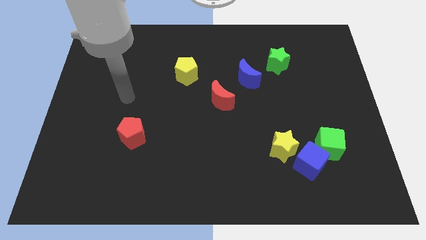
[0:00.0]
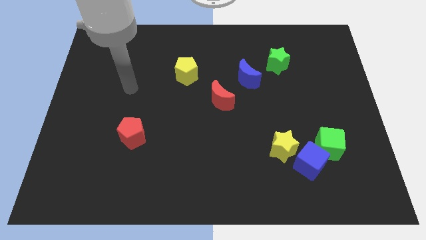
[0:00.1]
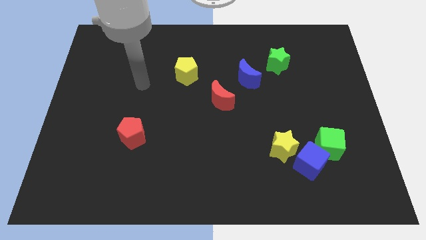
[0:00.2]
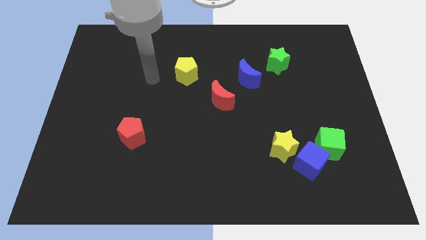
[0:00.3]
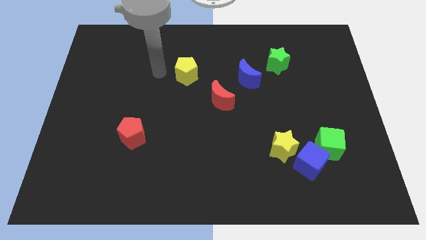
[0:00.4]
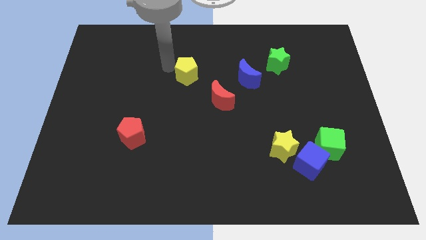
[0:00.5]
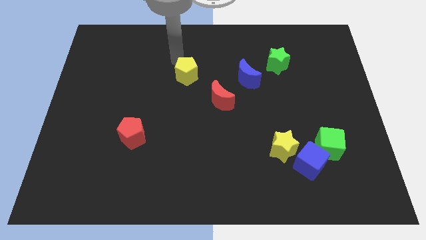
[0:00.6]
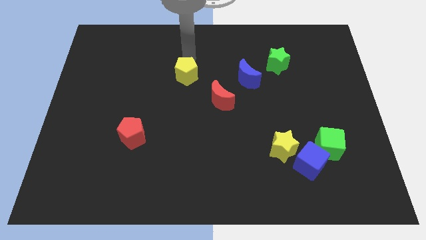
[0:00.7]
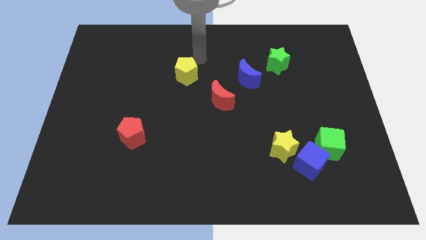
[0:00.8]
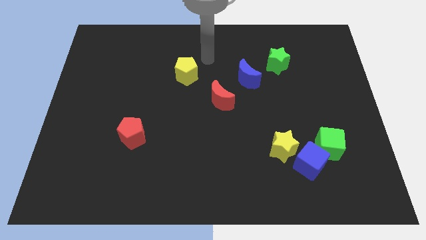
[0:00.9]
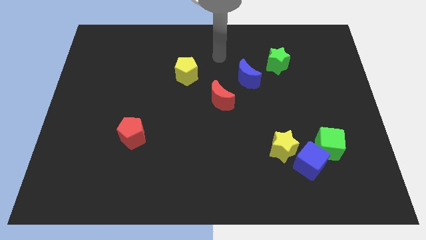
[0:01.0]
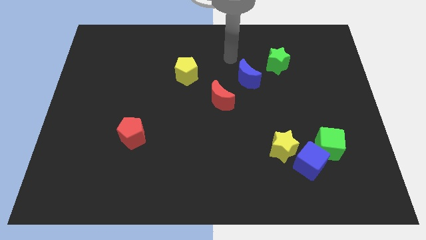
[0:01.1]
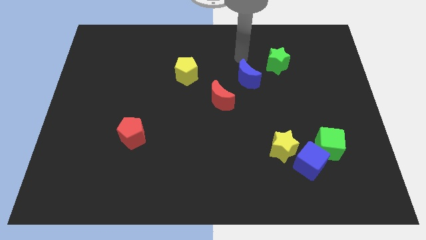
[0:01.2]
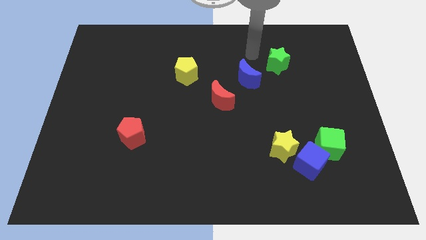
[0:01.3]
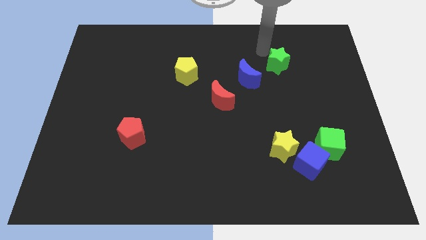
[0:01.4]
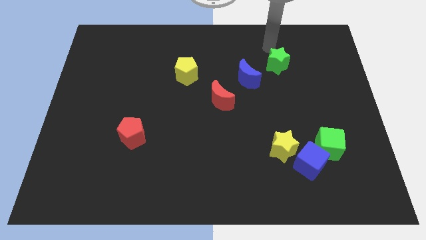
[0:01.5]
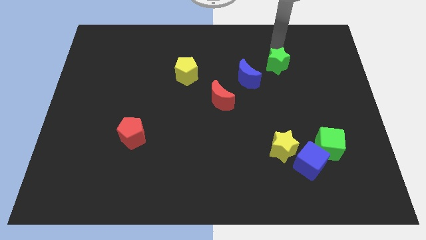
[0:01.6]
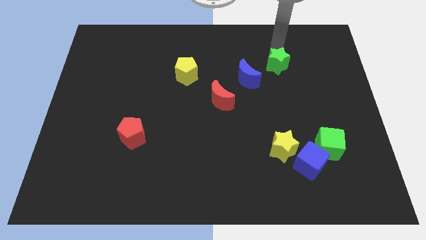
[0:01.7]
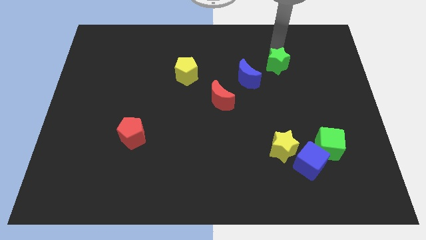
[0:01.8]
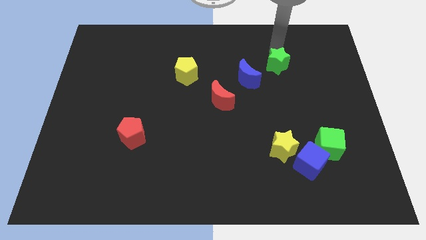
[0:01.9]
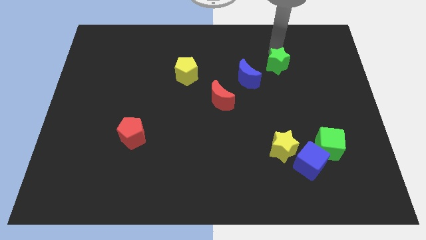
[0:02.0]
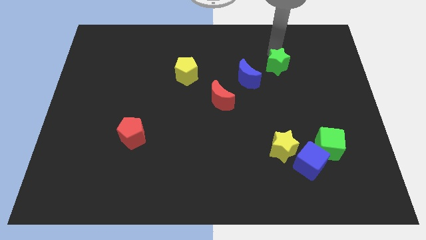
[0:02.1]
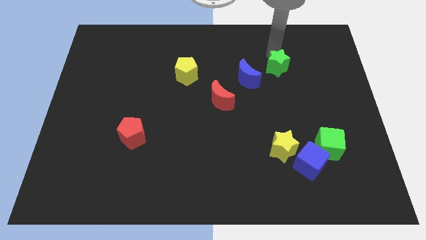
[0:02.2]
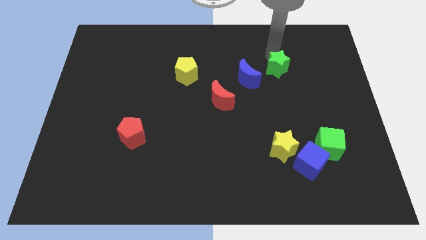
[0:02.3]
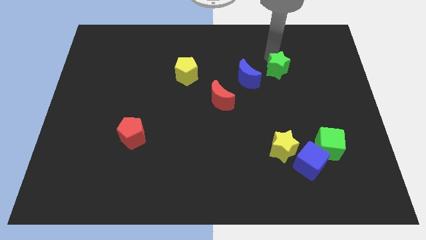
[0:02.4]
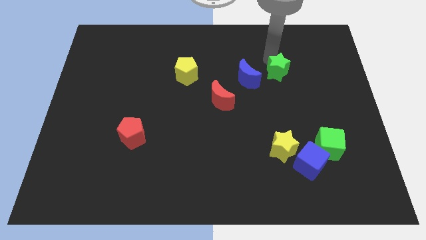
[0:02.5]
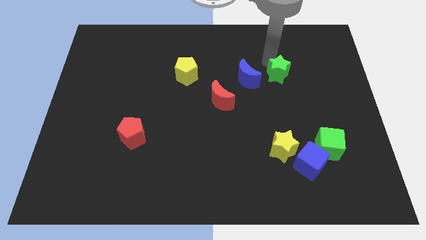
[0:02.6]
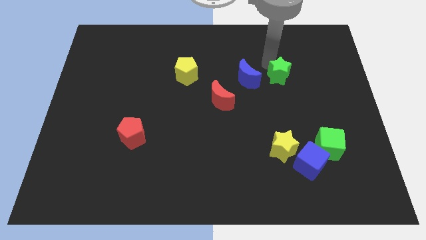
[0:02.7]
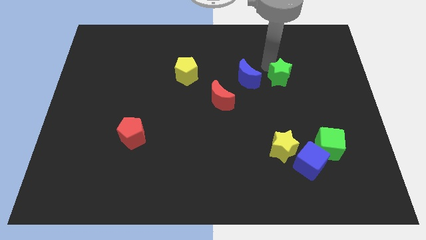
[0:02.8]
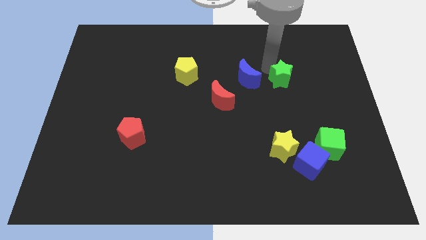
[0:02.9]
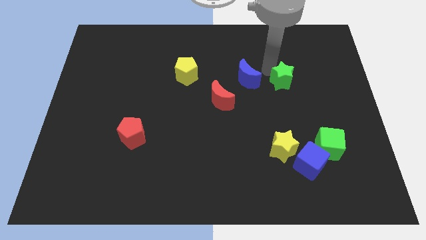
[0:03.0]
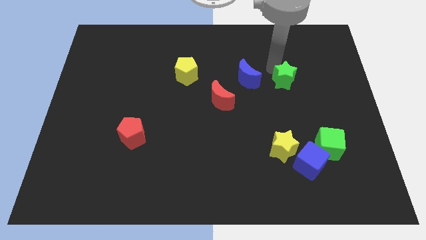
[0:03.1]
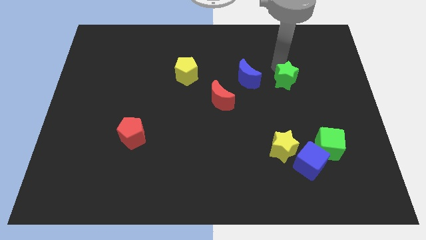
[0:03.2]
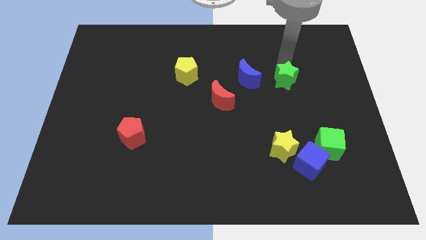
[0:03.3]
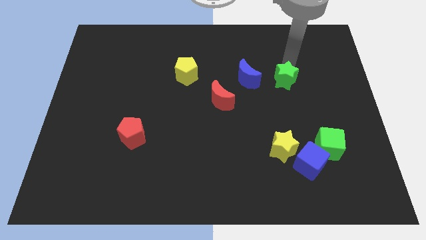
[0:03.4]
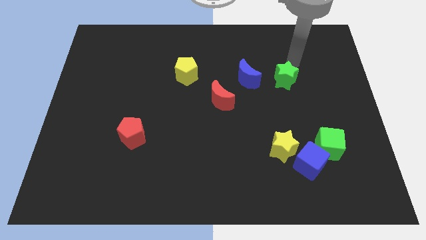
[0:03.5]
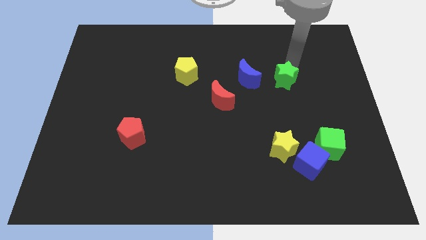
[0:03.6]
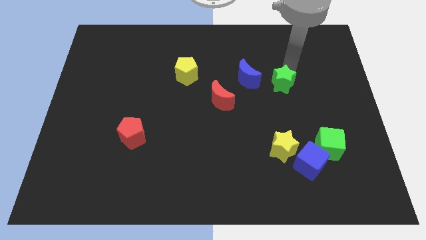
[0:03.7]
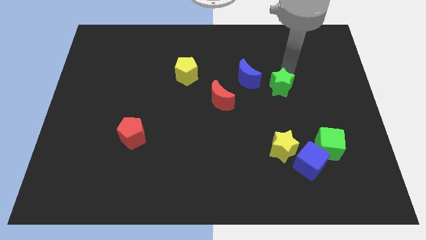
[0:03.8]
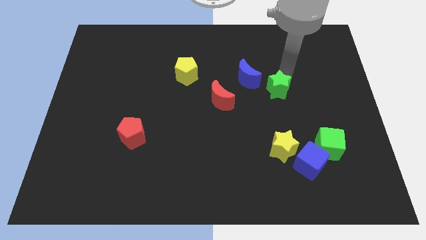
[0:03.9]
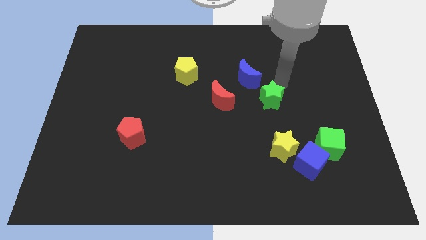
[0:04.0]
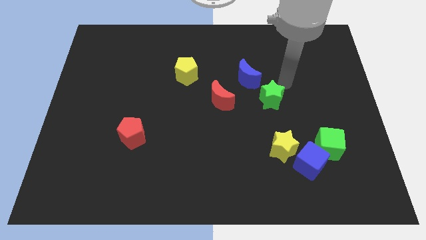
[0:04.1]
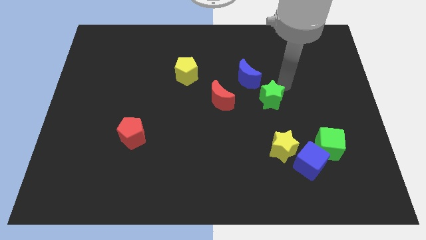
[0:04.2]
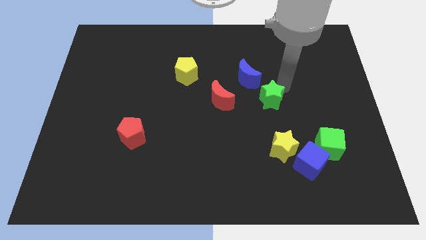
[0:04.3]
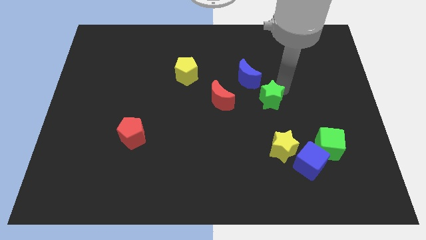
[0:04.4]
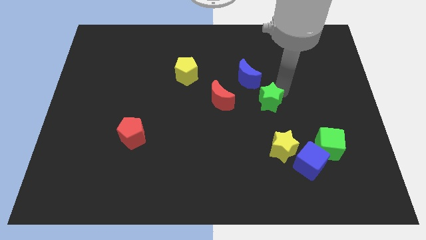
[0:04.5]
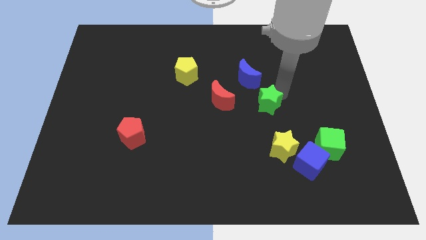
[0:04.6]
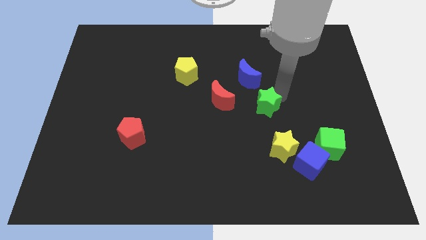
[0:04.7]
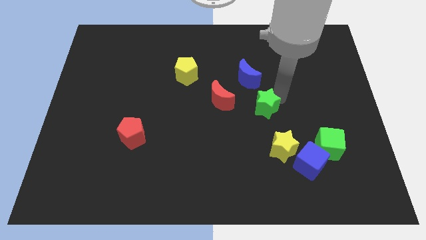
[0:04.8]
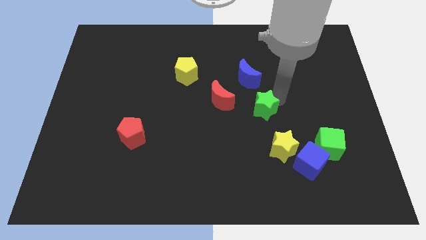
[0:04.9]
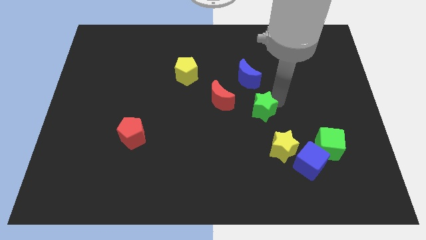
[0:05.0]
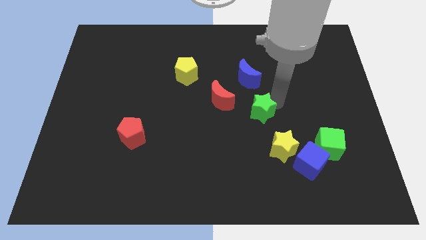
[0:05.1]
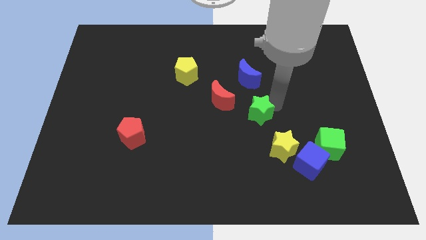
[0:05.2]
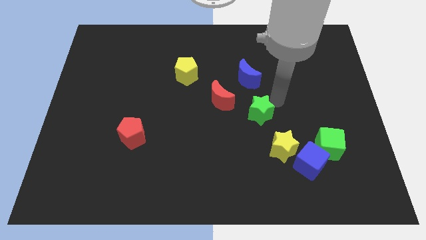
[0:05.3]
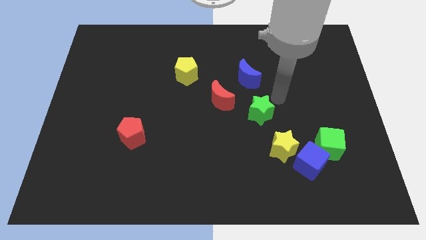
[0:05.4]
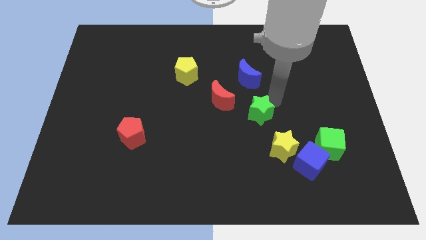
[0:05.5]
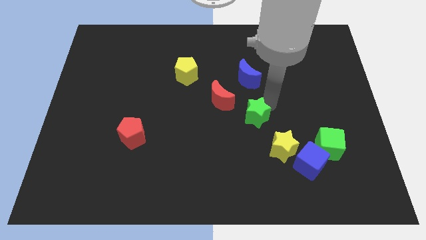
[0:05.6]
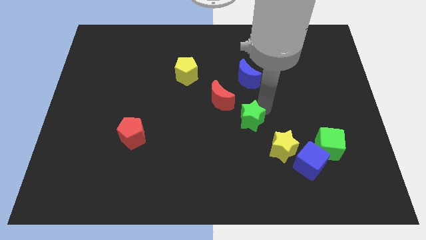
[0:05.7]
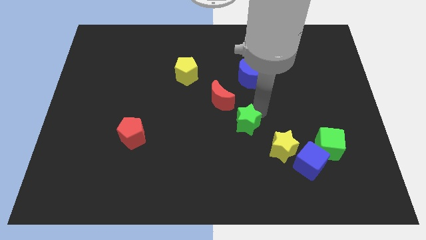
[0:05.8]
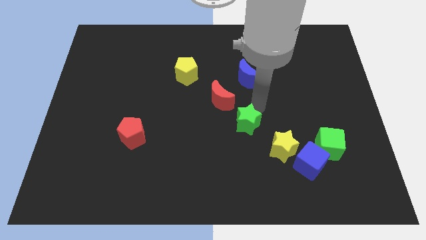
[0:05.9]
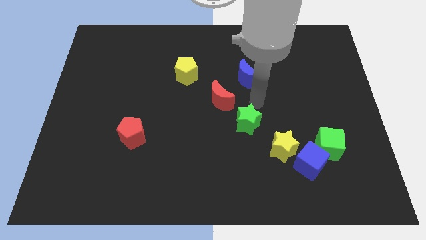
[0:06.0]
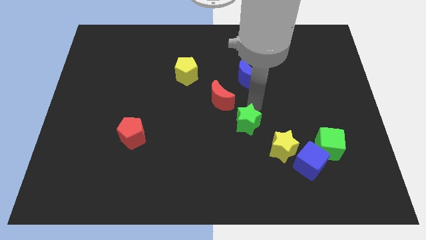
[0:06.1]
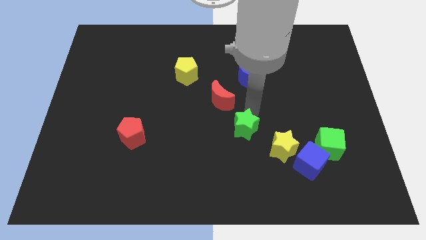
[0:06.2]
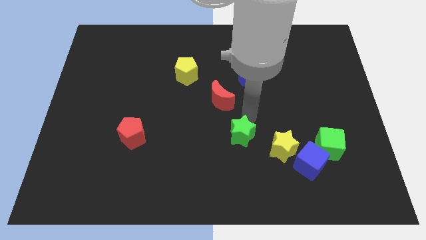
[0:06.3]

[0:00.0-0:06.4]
push the green star left of the yellow star
